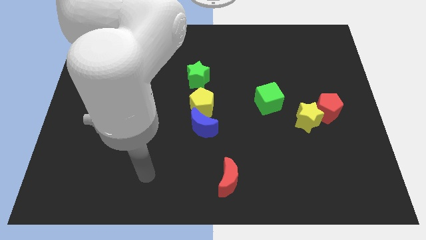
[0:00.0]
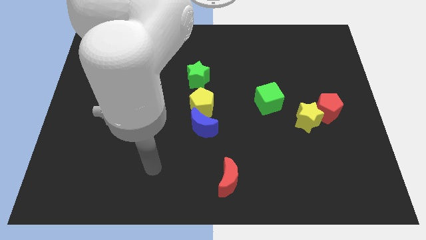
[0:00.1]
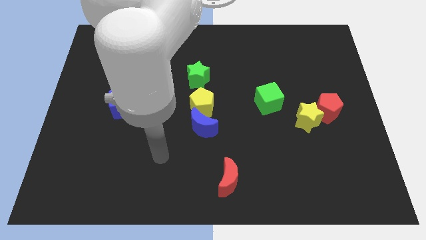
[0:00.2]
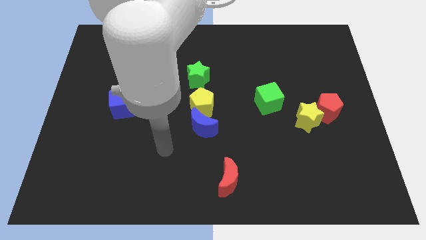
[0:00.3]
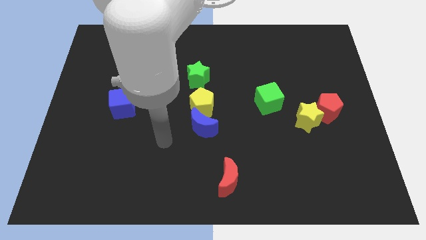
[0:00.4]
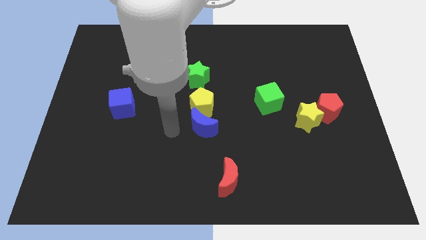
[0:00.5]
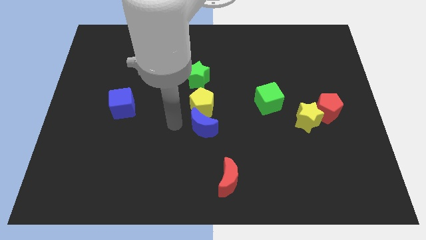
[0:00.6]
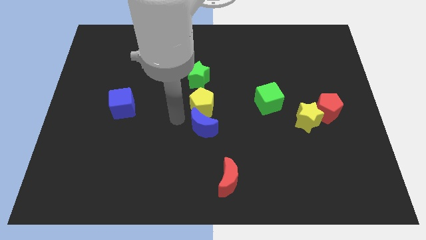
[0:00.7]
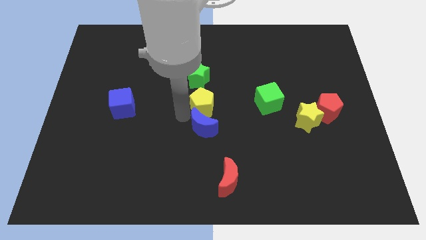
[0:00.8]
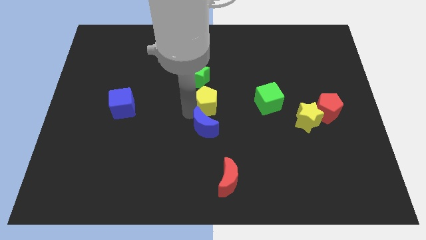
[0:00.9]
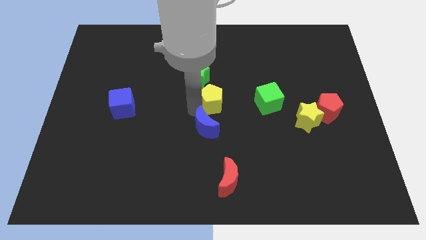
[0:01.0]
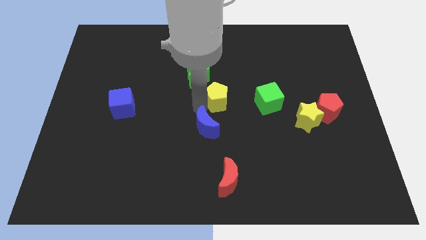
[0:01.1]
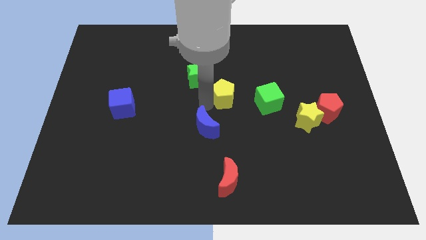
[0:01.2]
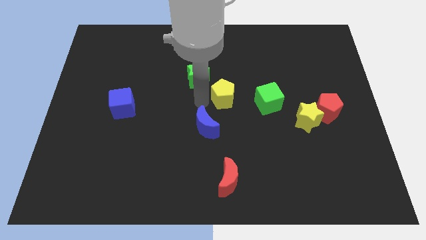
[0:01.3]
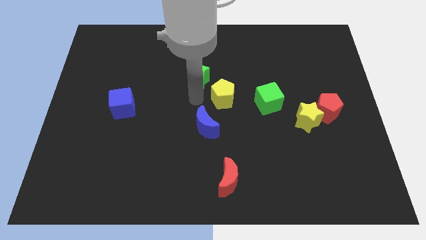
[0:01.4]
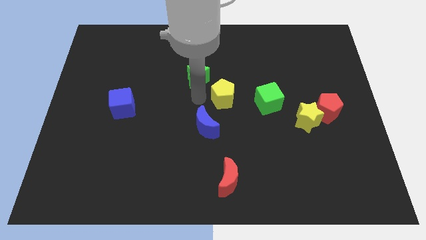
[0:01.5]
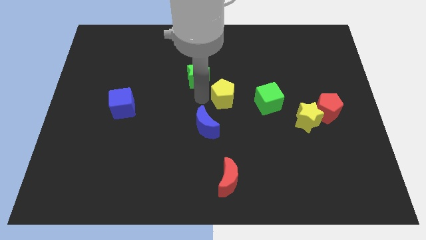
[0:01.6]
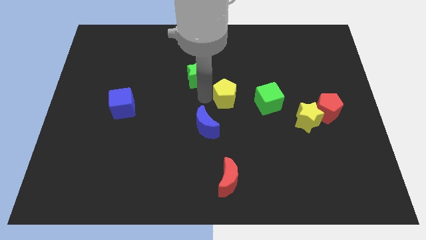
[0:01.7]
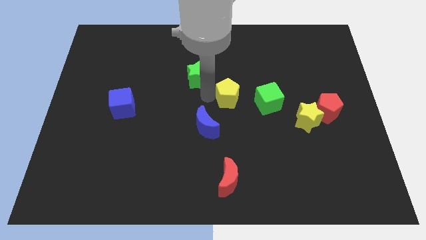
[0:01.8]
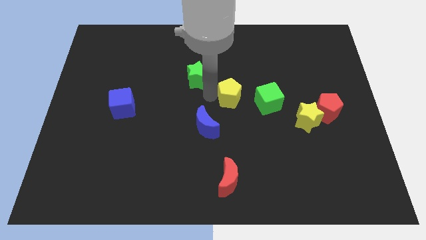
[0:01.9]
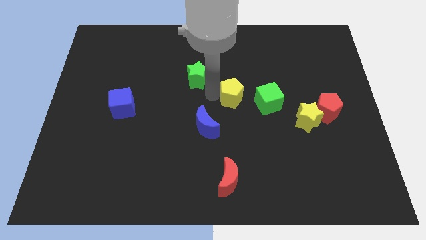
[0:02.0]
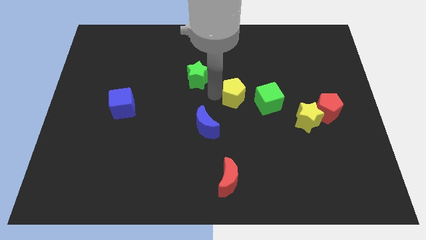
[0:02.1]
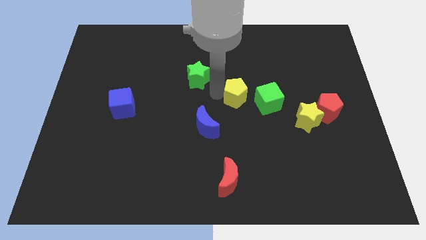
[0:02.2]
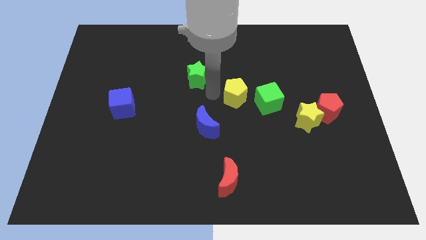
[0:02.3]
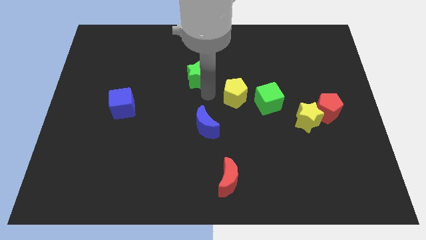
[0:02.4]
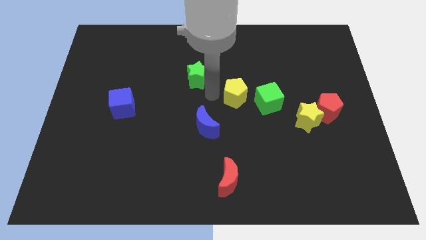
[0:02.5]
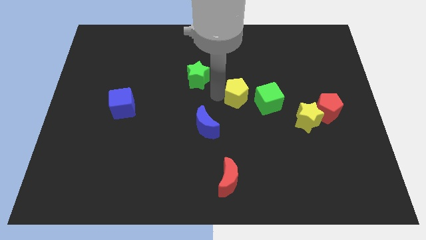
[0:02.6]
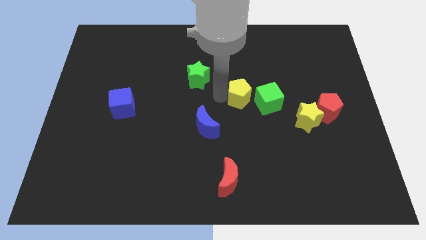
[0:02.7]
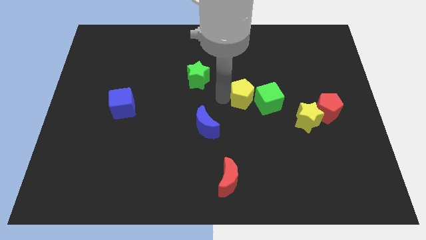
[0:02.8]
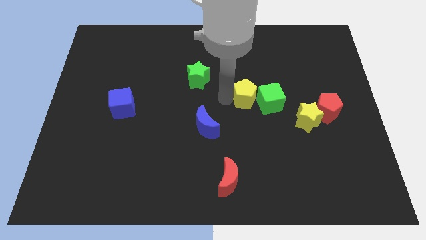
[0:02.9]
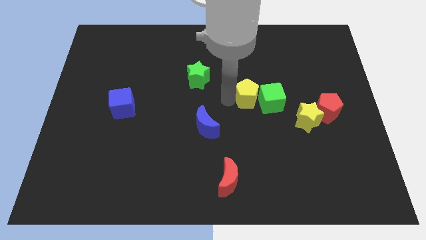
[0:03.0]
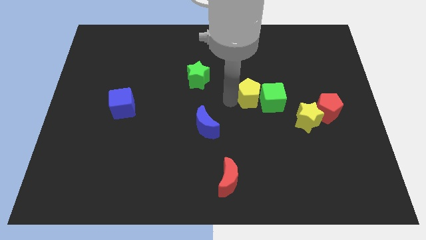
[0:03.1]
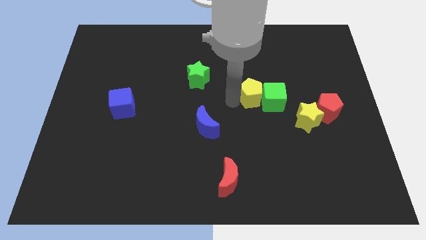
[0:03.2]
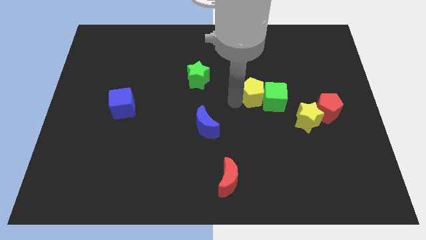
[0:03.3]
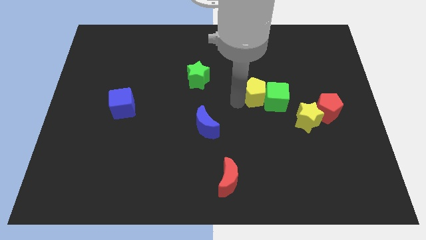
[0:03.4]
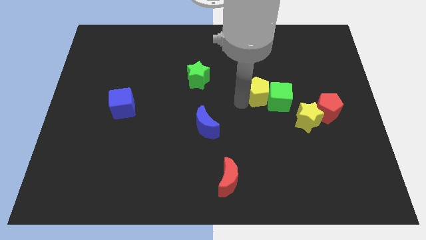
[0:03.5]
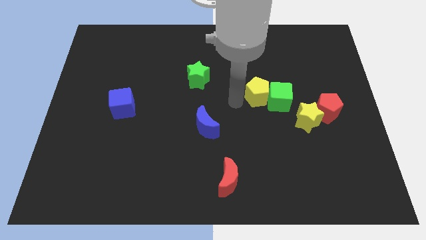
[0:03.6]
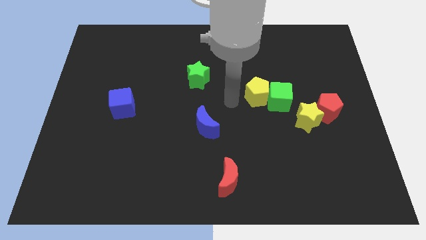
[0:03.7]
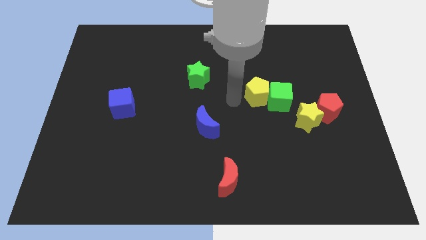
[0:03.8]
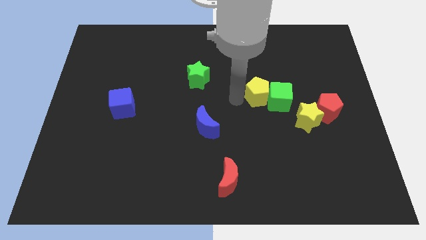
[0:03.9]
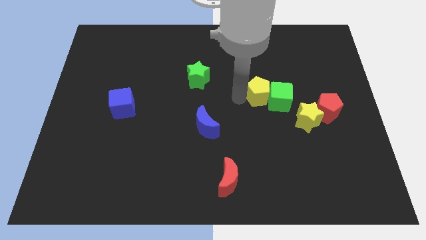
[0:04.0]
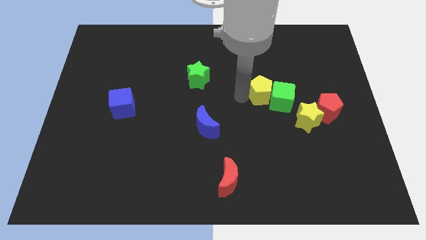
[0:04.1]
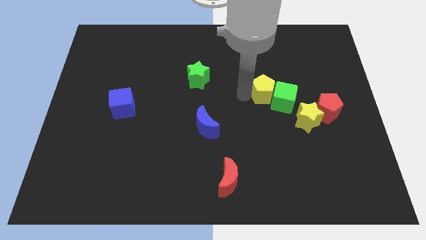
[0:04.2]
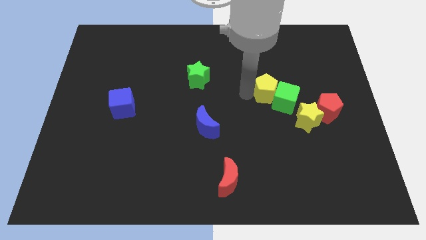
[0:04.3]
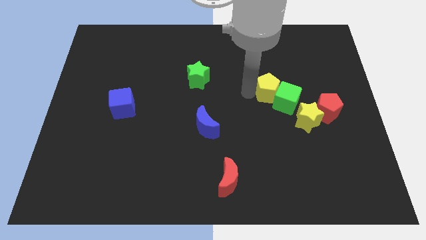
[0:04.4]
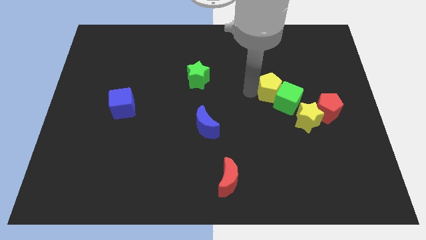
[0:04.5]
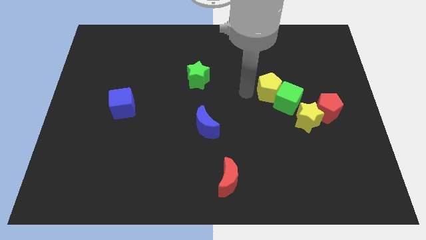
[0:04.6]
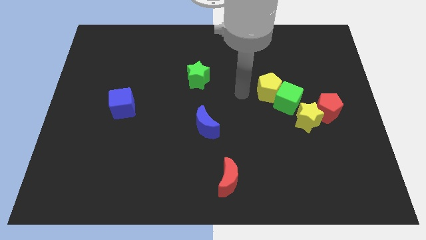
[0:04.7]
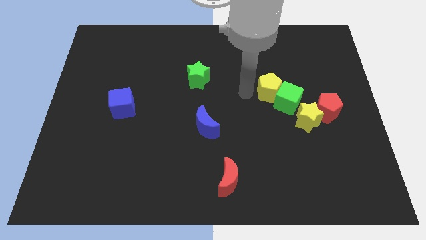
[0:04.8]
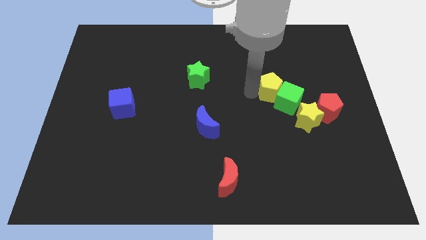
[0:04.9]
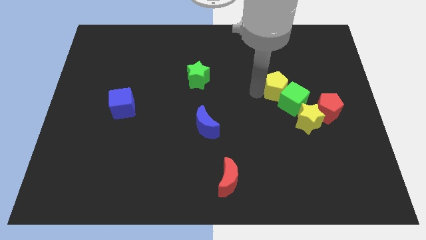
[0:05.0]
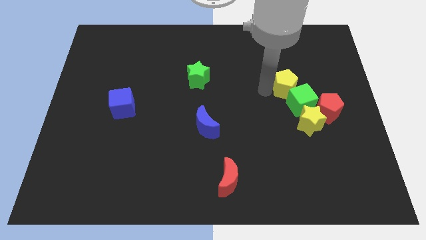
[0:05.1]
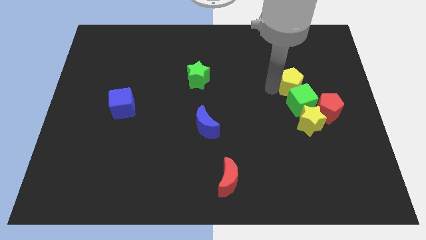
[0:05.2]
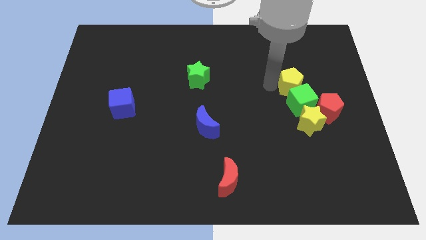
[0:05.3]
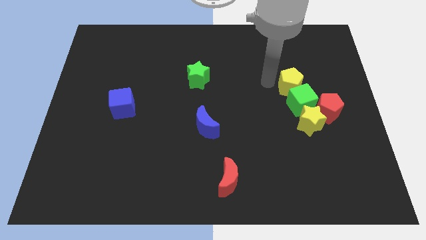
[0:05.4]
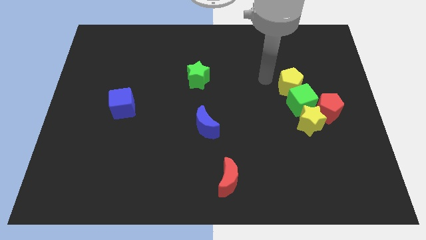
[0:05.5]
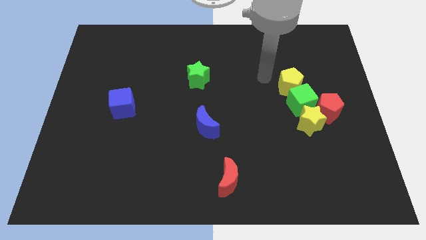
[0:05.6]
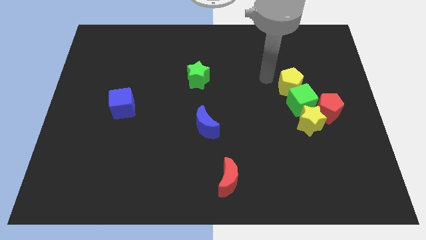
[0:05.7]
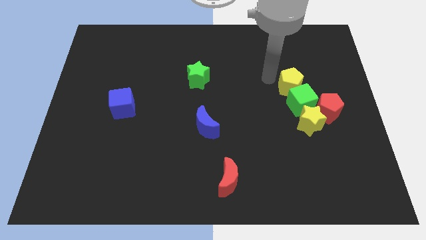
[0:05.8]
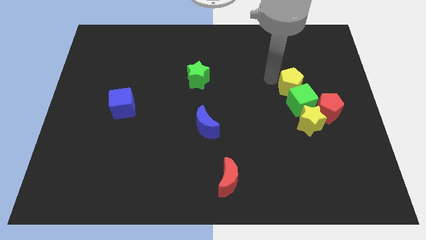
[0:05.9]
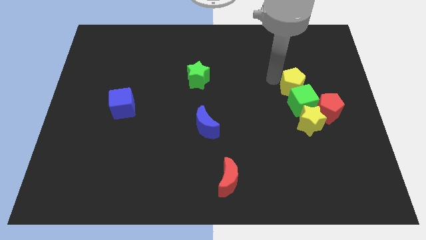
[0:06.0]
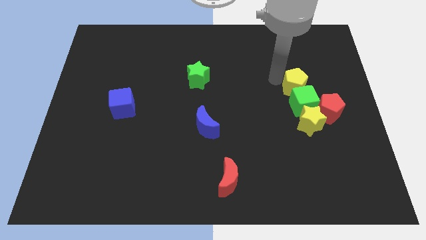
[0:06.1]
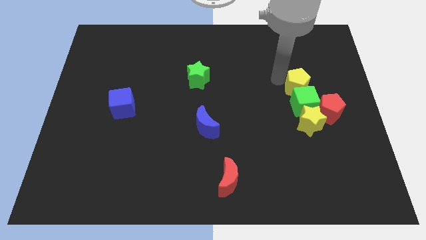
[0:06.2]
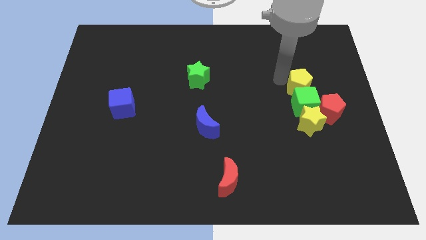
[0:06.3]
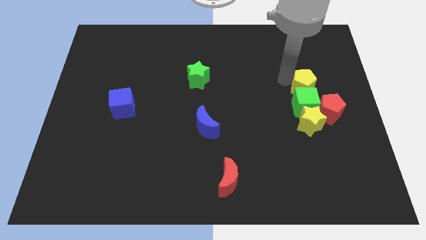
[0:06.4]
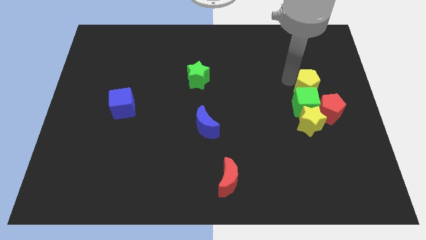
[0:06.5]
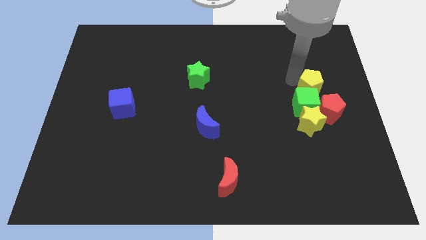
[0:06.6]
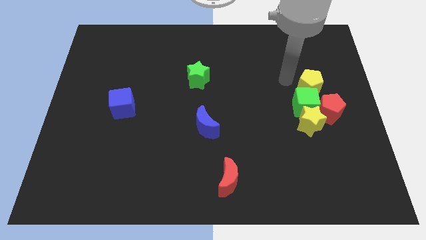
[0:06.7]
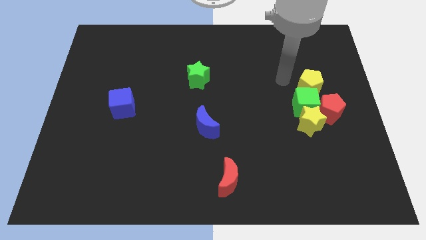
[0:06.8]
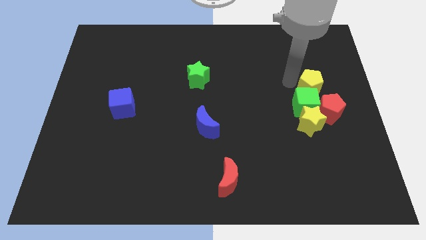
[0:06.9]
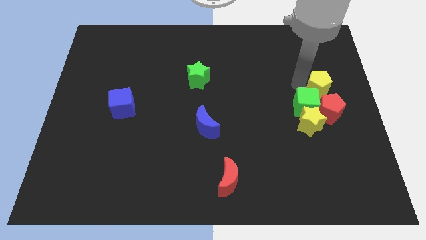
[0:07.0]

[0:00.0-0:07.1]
push the yellow pentagon to the center right
